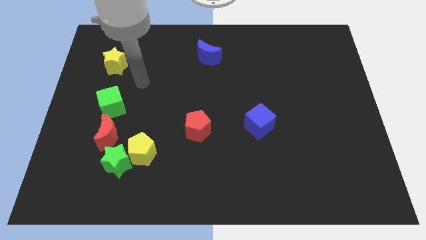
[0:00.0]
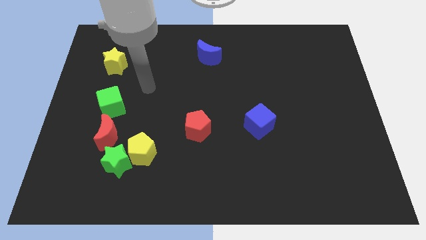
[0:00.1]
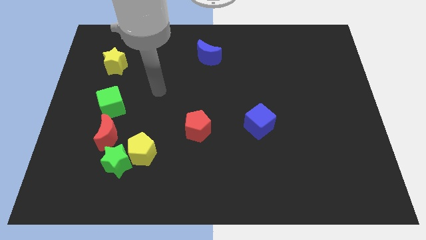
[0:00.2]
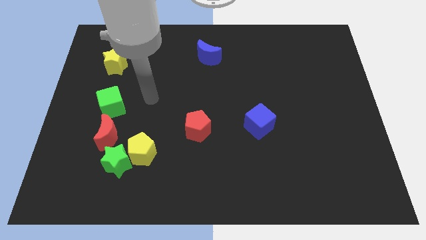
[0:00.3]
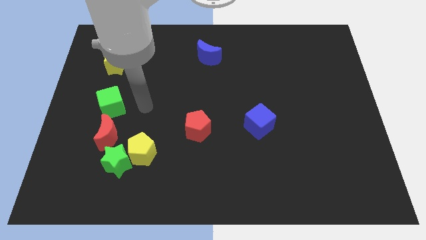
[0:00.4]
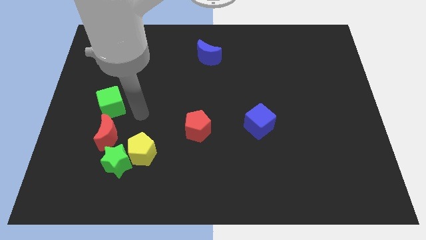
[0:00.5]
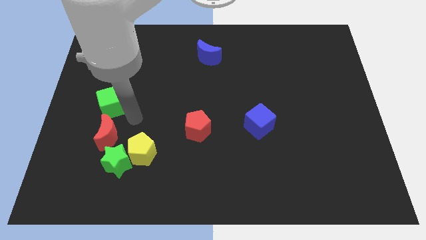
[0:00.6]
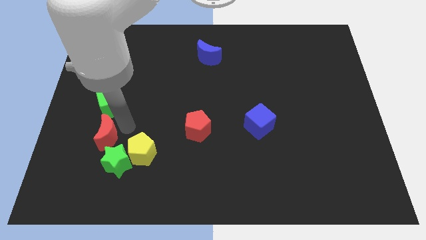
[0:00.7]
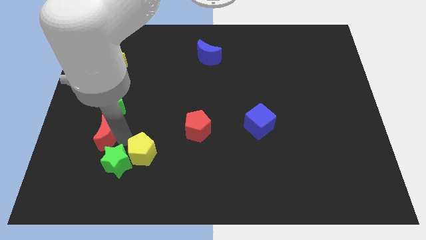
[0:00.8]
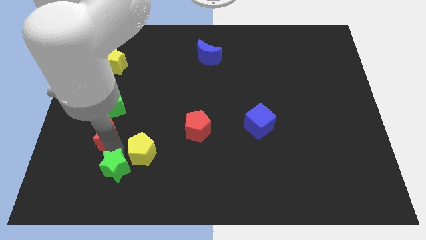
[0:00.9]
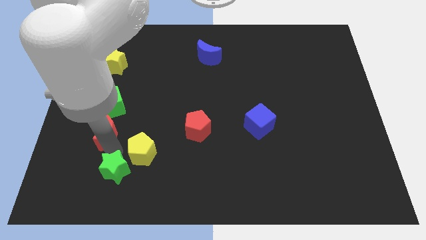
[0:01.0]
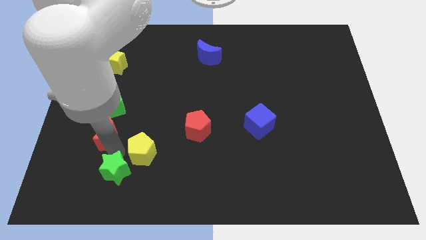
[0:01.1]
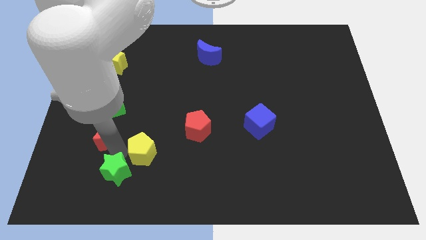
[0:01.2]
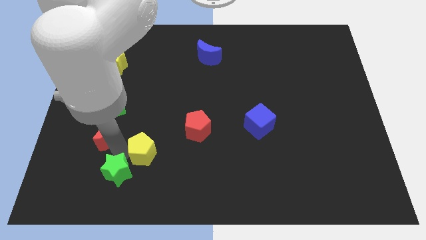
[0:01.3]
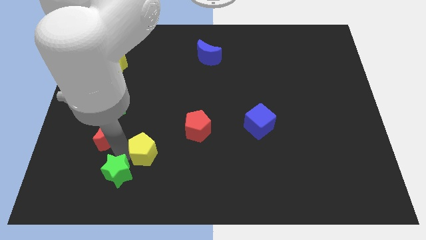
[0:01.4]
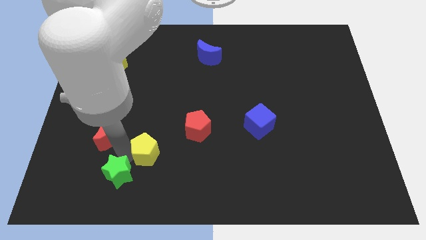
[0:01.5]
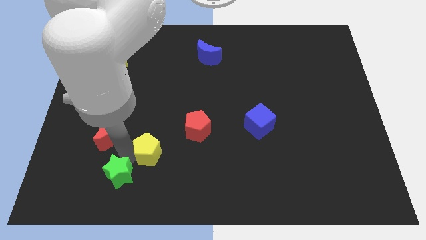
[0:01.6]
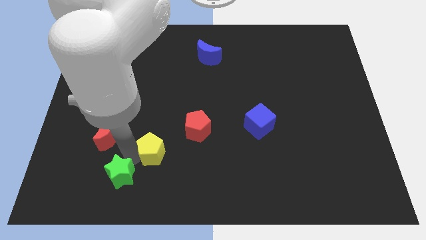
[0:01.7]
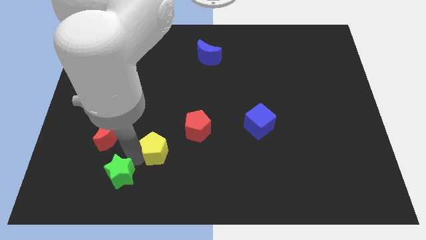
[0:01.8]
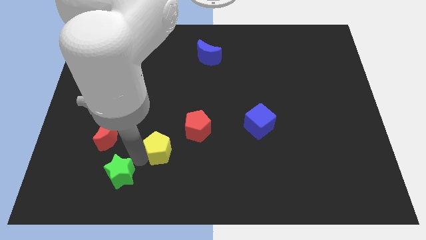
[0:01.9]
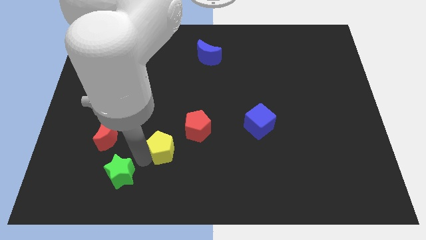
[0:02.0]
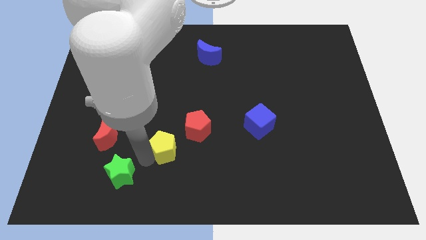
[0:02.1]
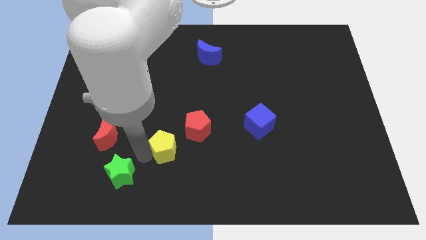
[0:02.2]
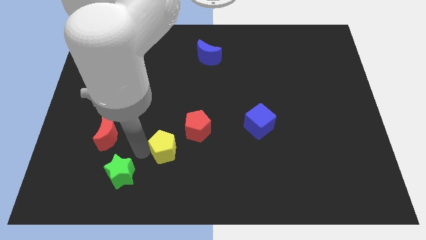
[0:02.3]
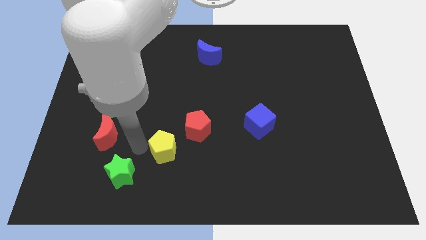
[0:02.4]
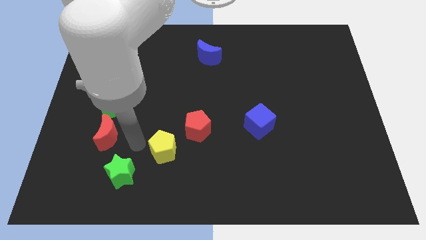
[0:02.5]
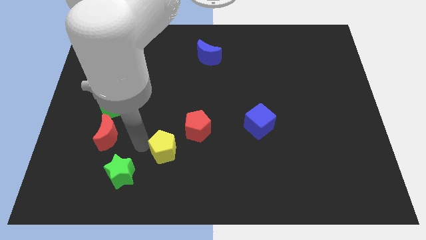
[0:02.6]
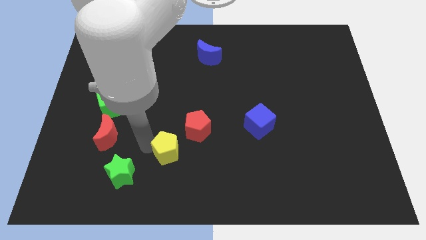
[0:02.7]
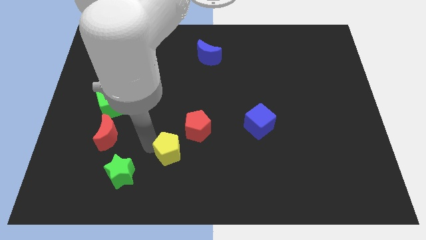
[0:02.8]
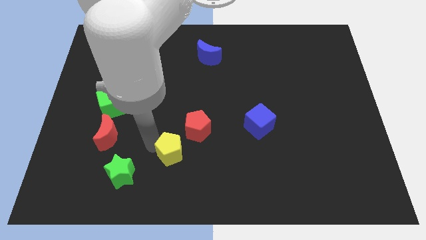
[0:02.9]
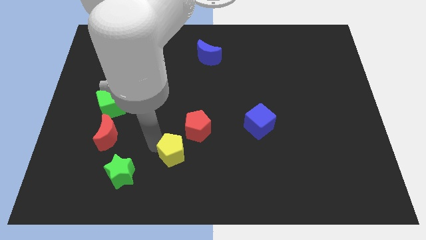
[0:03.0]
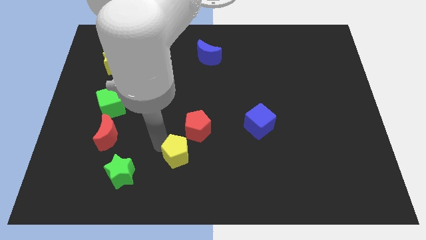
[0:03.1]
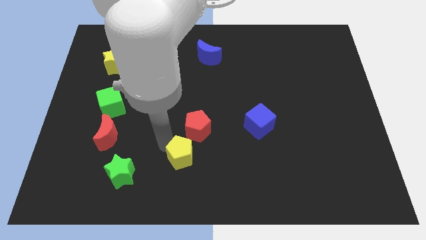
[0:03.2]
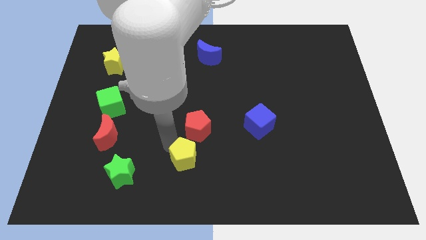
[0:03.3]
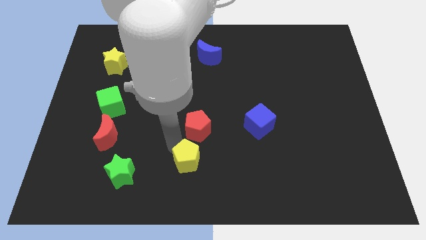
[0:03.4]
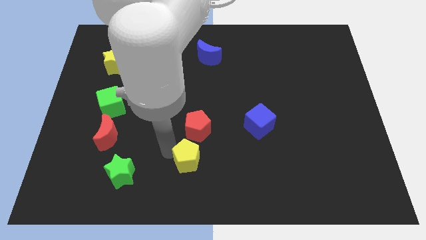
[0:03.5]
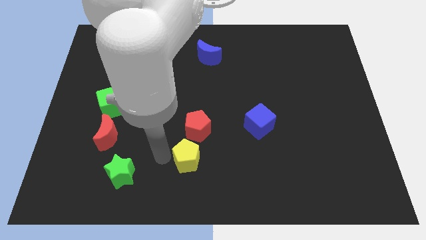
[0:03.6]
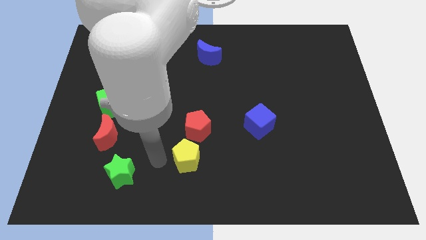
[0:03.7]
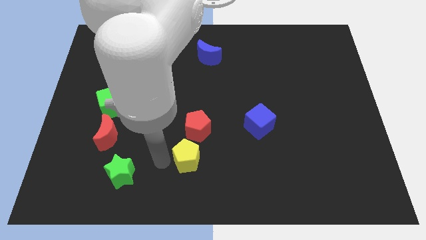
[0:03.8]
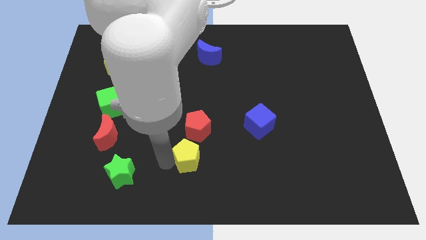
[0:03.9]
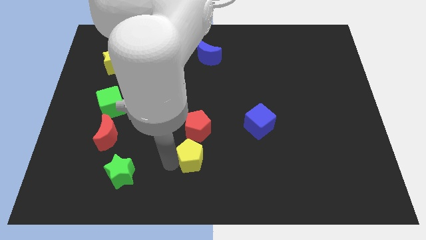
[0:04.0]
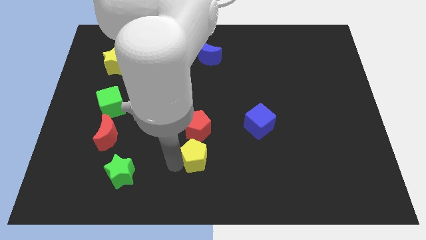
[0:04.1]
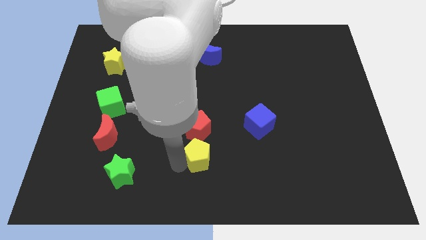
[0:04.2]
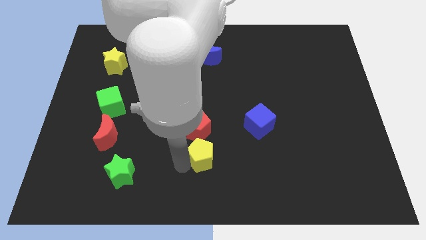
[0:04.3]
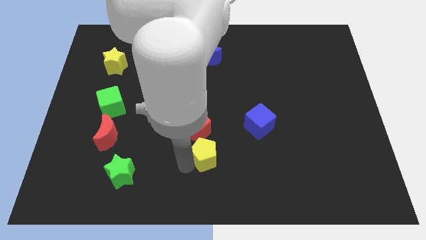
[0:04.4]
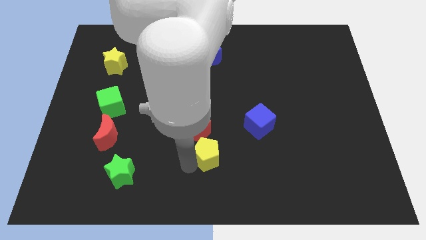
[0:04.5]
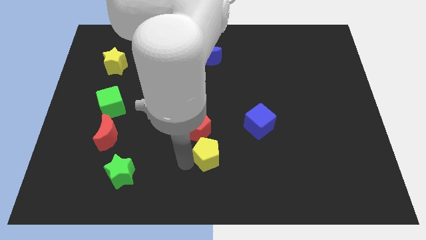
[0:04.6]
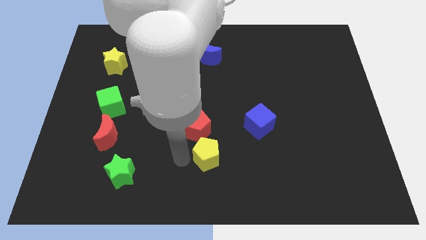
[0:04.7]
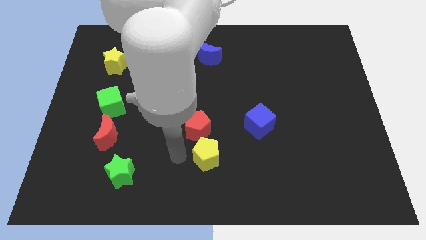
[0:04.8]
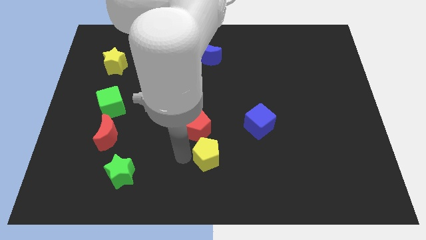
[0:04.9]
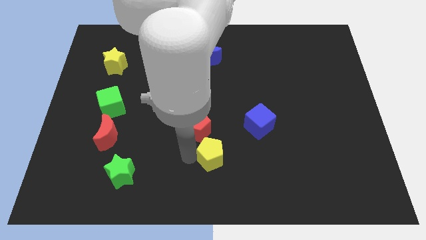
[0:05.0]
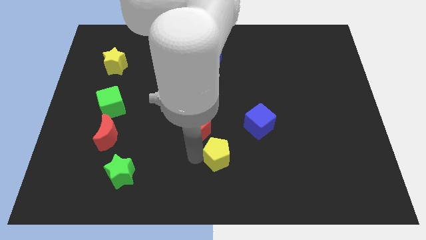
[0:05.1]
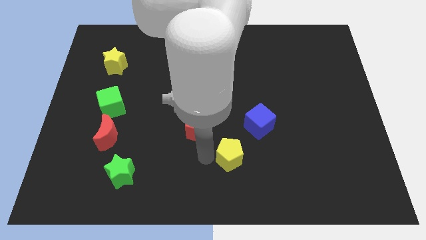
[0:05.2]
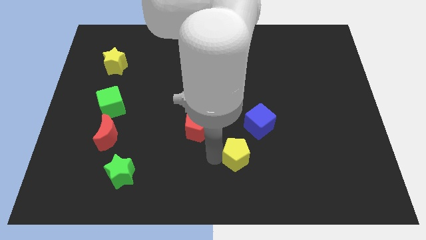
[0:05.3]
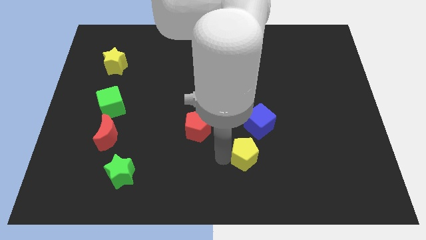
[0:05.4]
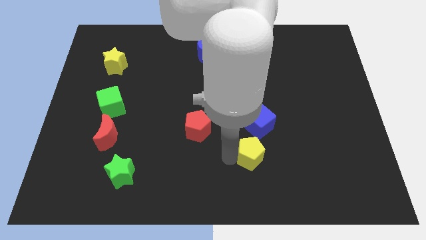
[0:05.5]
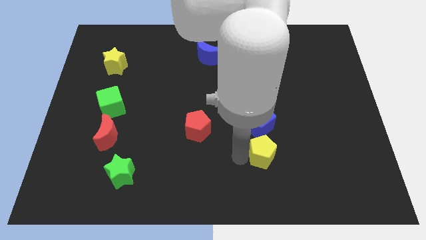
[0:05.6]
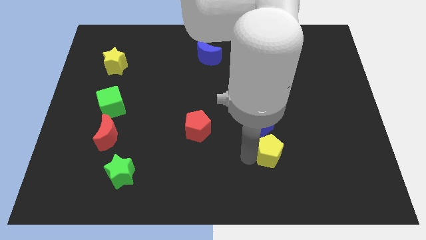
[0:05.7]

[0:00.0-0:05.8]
move the yellow pentagon to the bottom right of the blue cube

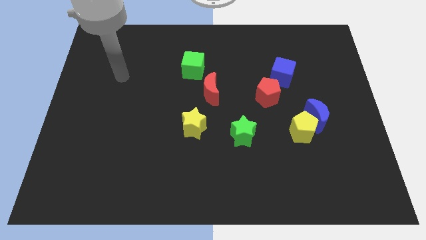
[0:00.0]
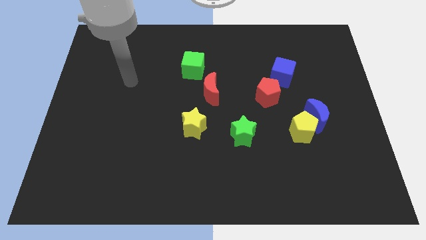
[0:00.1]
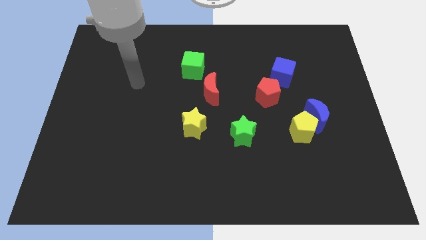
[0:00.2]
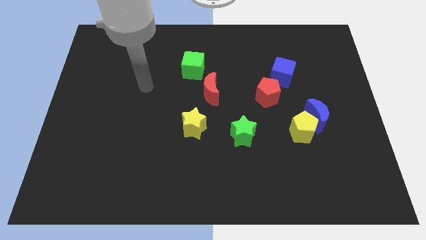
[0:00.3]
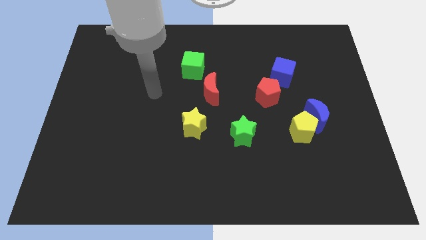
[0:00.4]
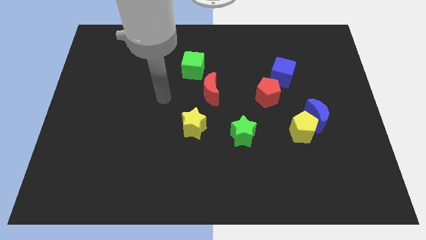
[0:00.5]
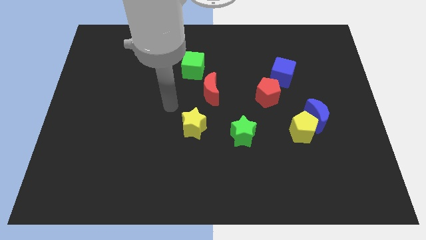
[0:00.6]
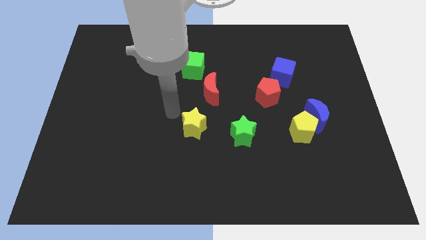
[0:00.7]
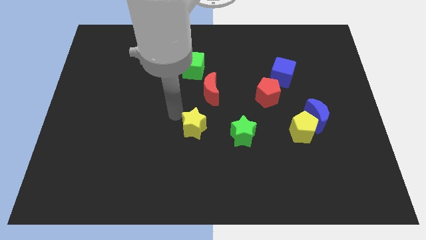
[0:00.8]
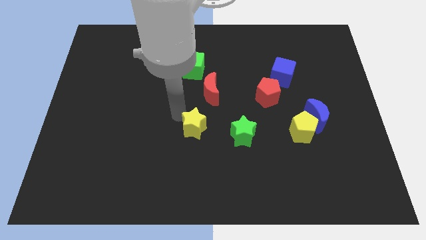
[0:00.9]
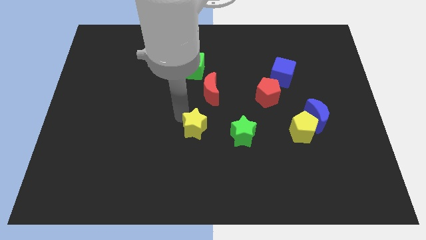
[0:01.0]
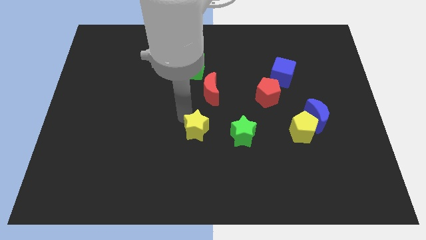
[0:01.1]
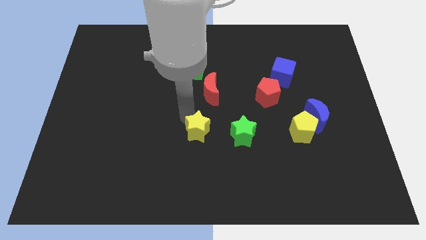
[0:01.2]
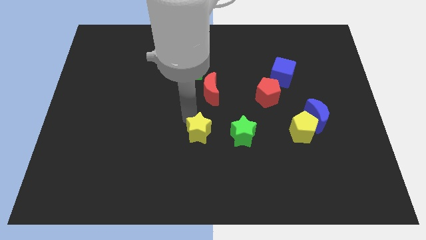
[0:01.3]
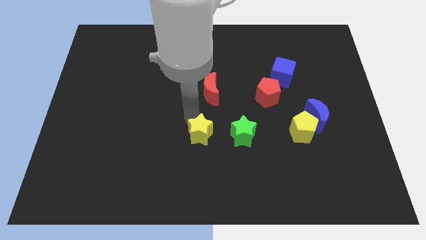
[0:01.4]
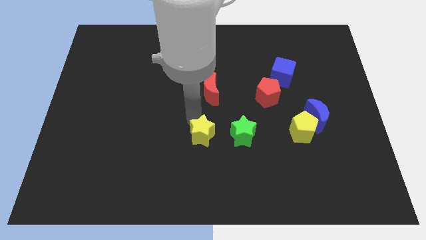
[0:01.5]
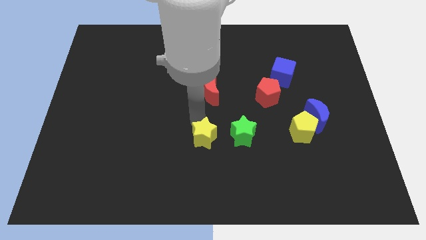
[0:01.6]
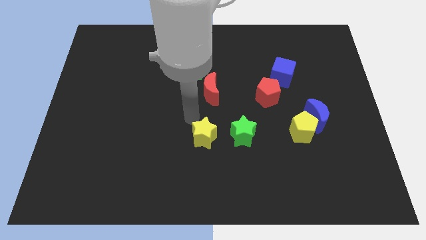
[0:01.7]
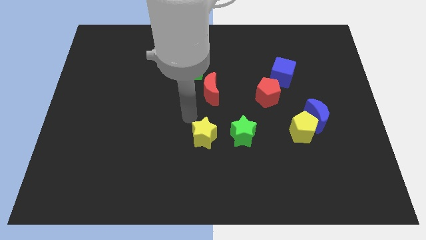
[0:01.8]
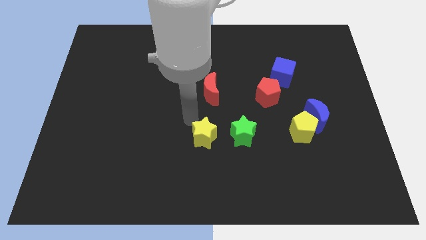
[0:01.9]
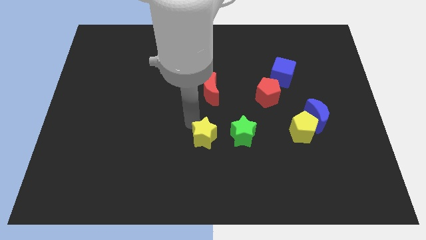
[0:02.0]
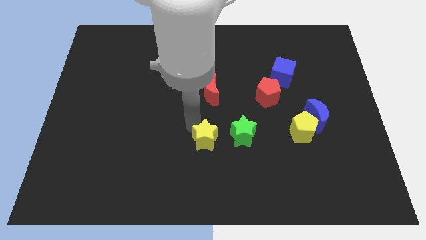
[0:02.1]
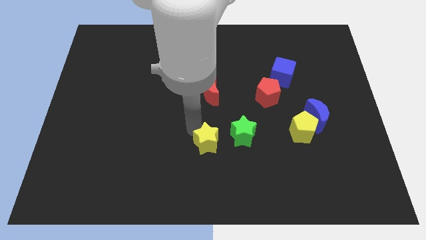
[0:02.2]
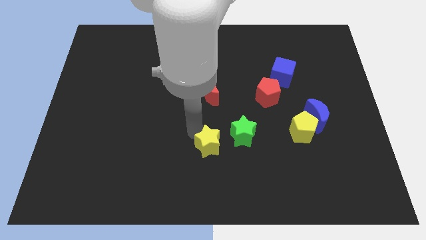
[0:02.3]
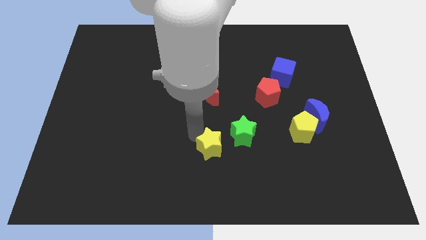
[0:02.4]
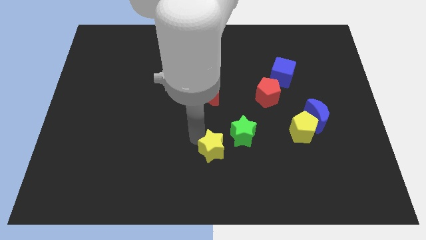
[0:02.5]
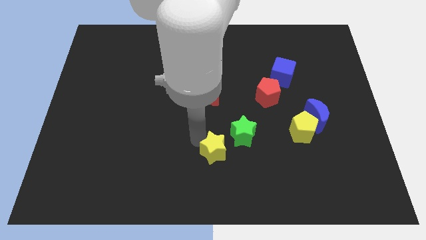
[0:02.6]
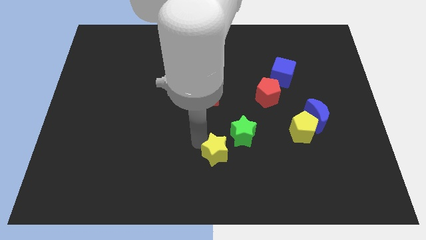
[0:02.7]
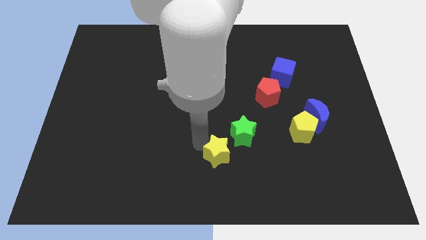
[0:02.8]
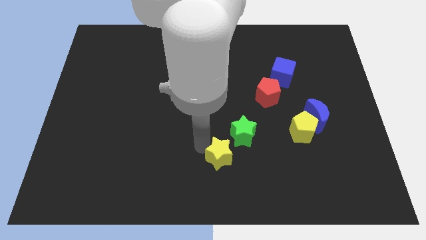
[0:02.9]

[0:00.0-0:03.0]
move the yellow star below the green star
